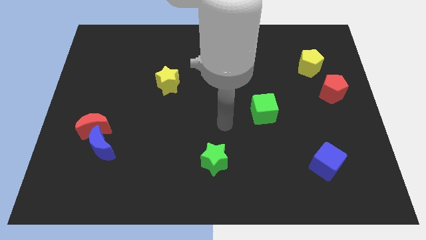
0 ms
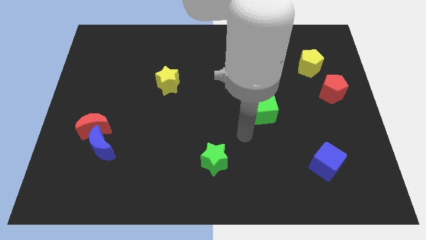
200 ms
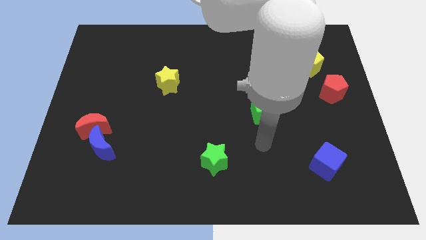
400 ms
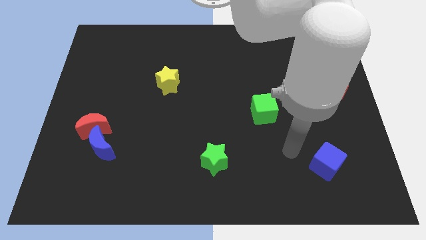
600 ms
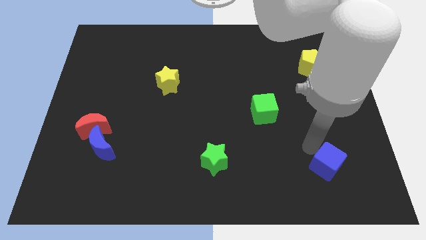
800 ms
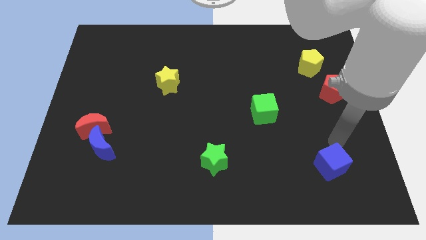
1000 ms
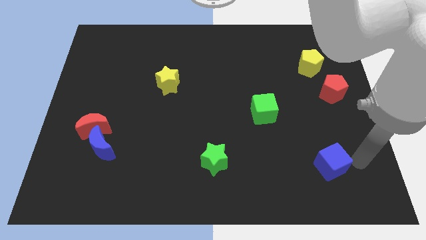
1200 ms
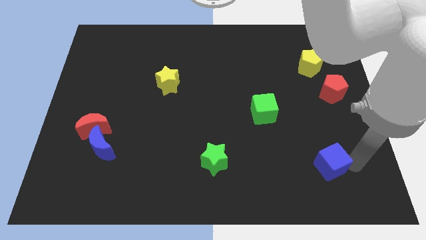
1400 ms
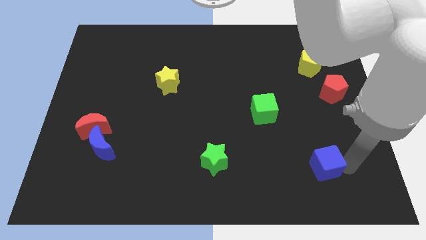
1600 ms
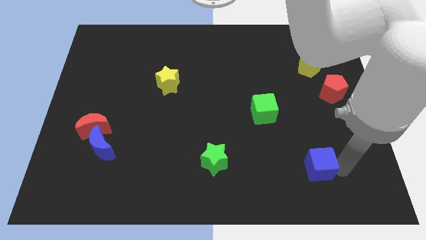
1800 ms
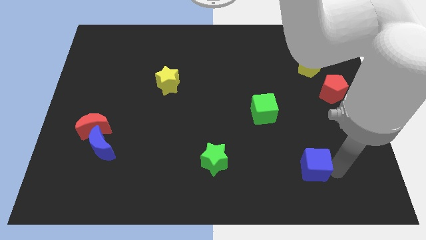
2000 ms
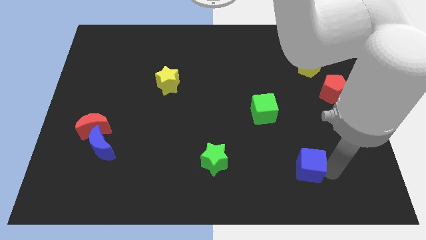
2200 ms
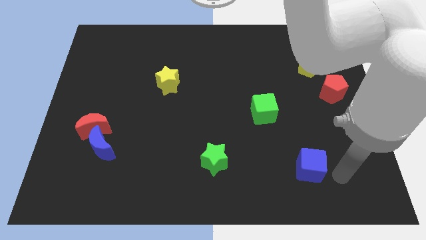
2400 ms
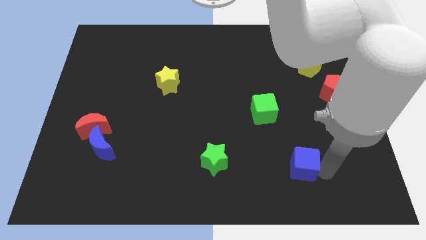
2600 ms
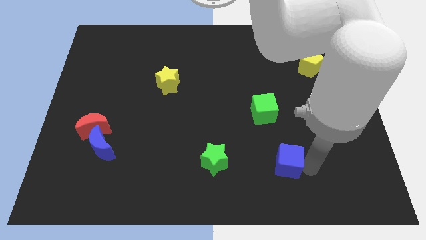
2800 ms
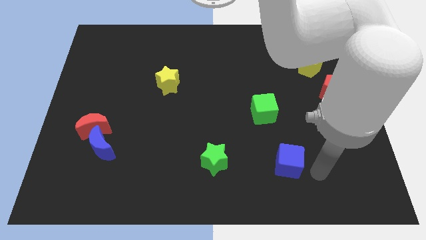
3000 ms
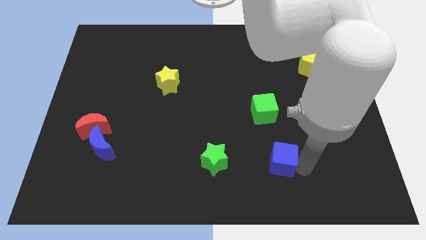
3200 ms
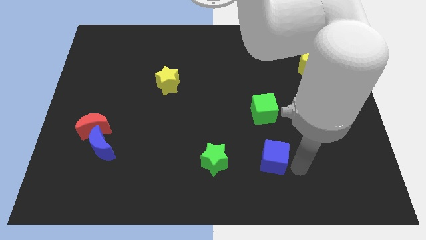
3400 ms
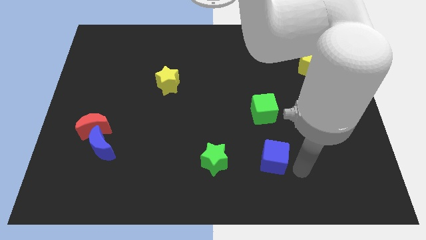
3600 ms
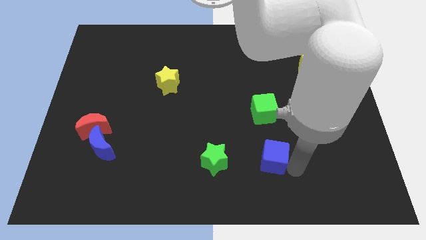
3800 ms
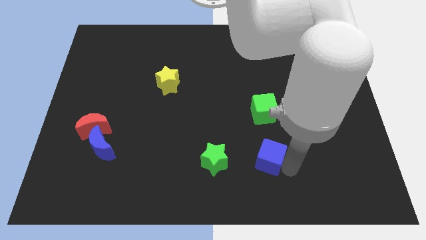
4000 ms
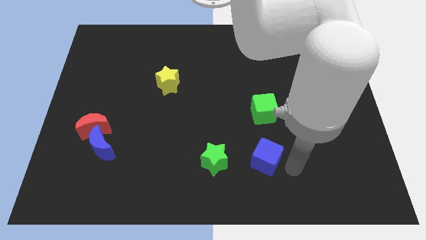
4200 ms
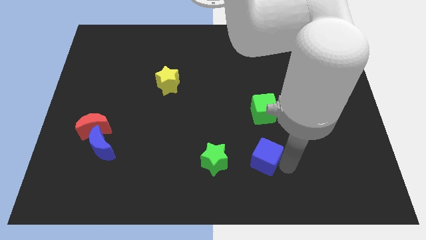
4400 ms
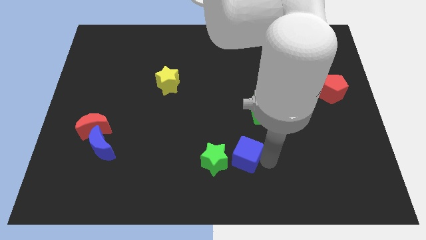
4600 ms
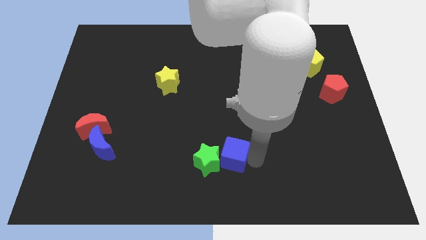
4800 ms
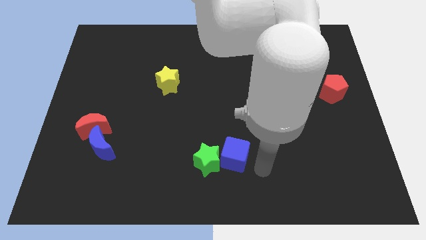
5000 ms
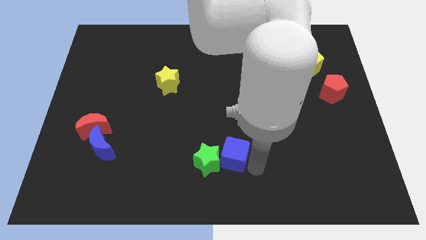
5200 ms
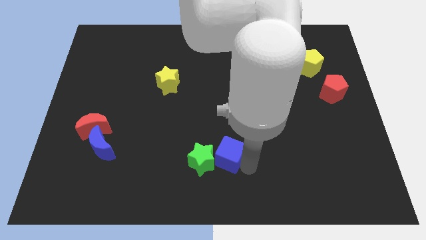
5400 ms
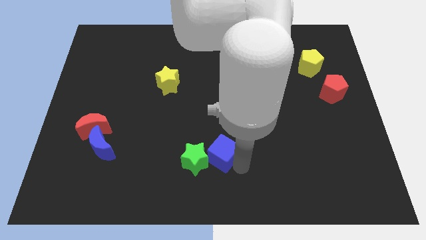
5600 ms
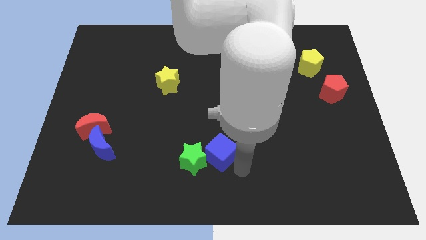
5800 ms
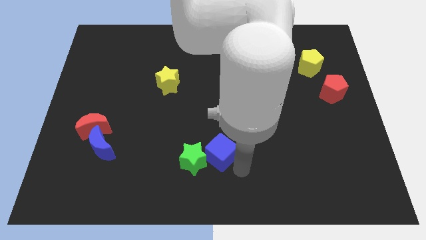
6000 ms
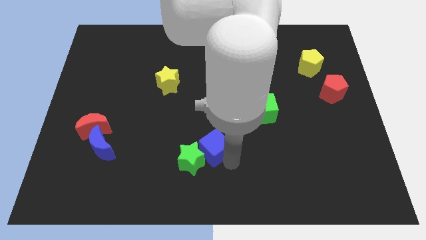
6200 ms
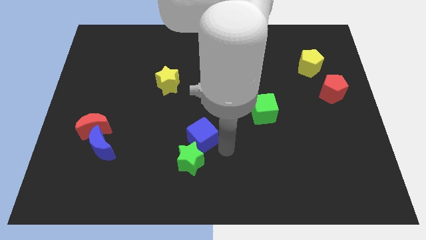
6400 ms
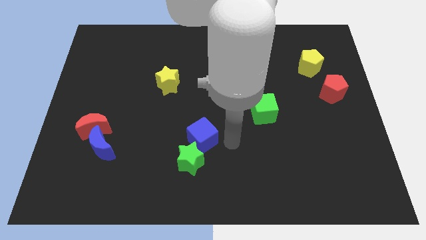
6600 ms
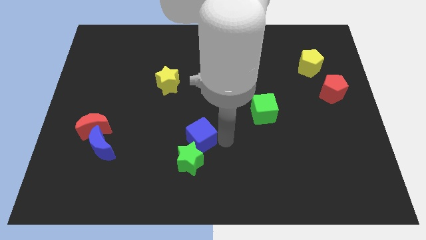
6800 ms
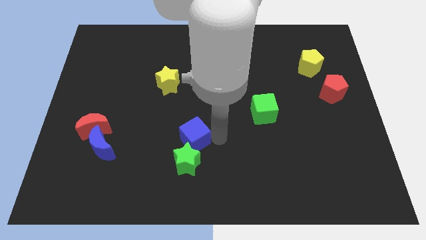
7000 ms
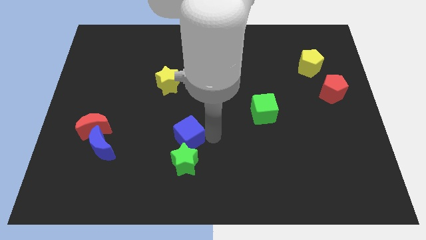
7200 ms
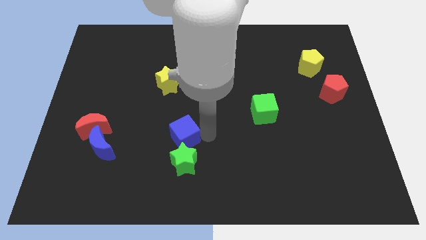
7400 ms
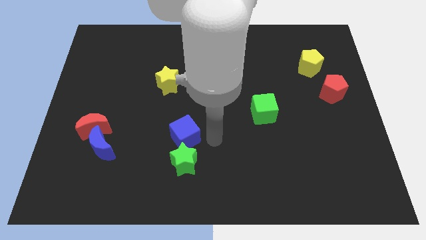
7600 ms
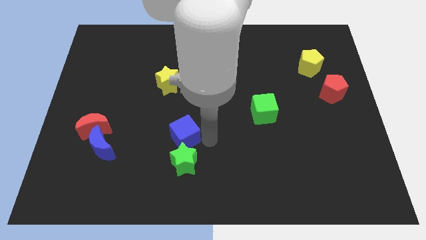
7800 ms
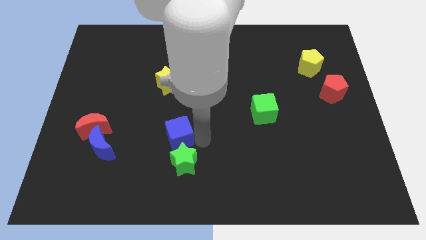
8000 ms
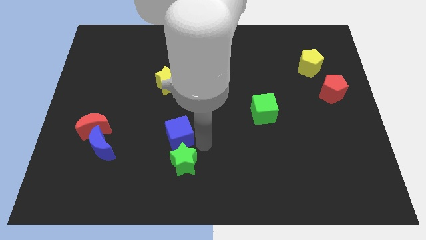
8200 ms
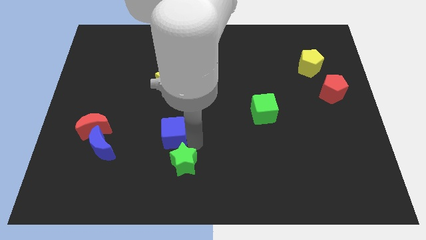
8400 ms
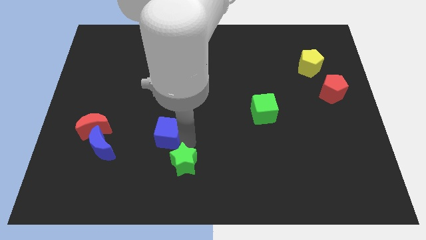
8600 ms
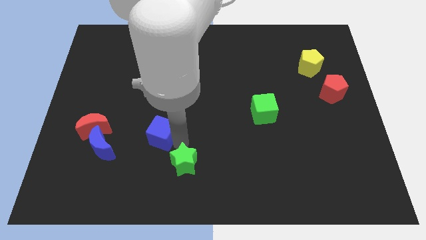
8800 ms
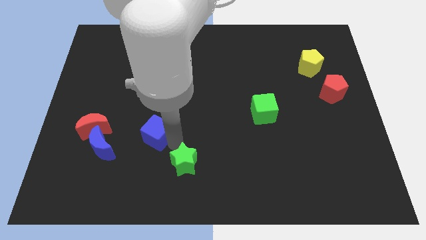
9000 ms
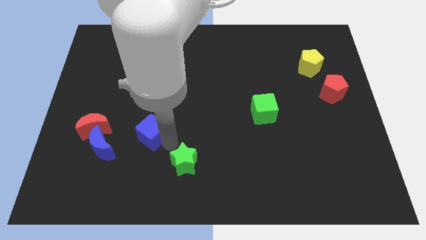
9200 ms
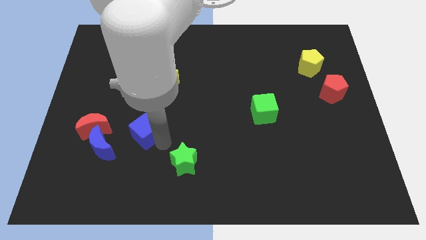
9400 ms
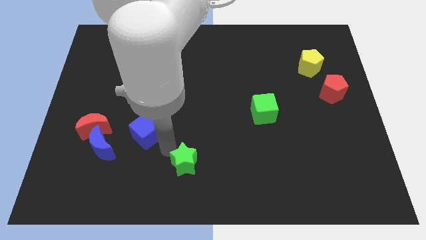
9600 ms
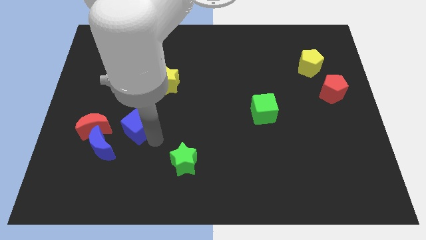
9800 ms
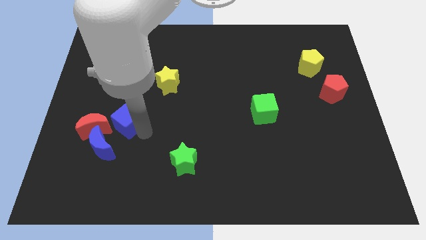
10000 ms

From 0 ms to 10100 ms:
move the blue cube to the top side of the blue moon

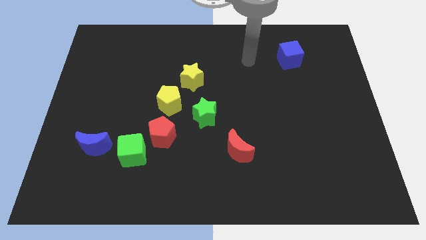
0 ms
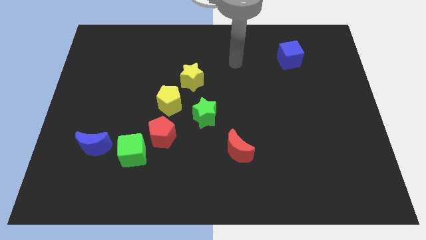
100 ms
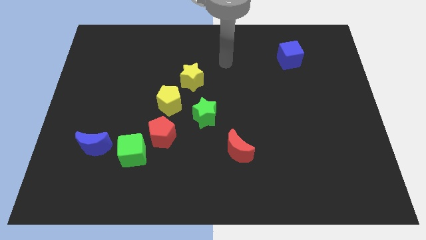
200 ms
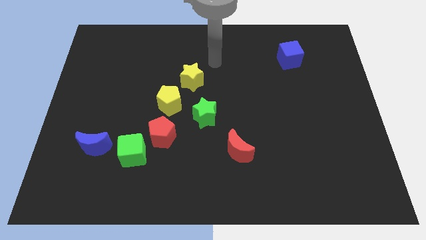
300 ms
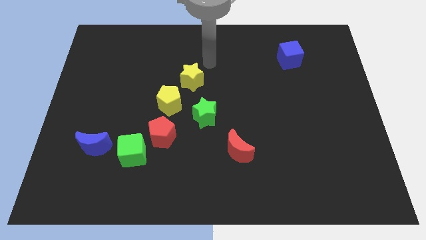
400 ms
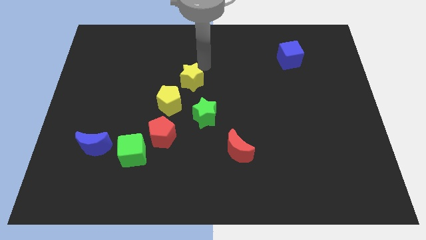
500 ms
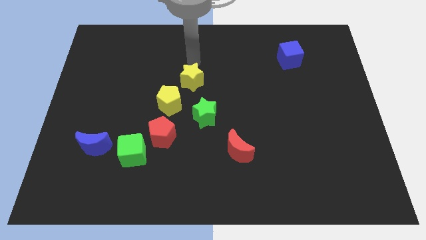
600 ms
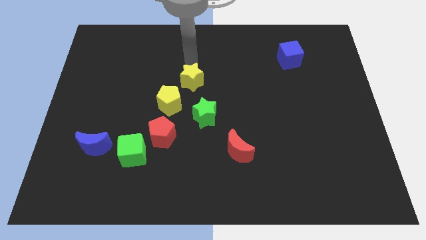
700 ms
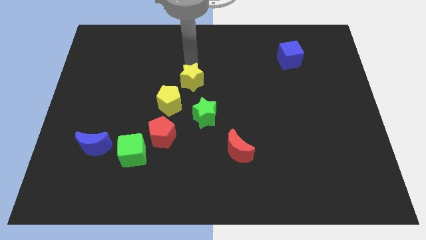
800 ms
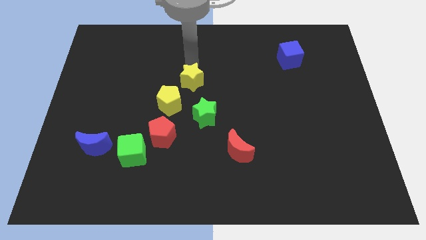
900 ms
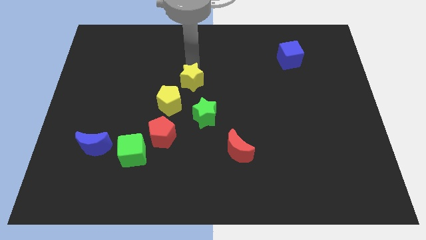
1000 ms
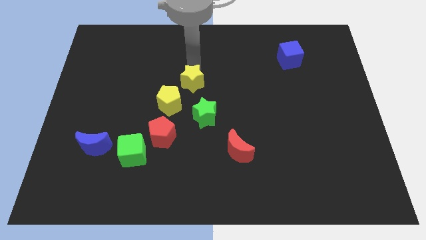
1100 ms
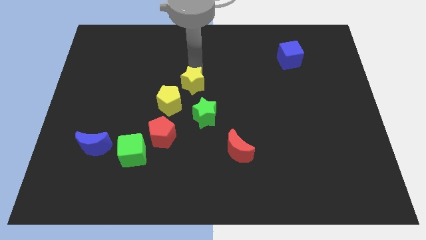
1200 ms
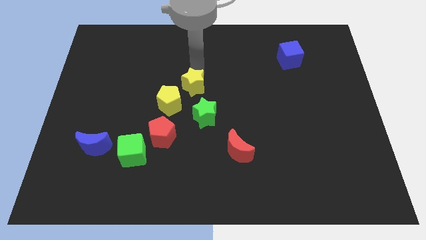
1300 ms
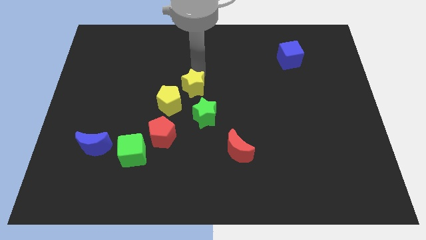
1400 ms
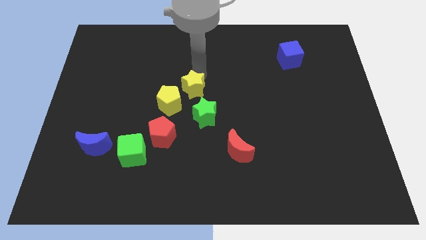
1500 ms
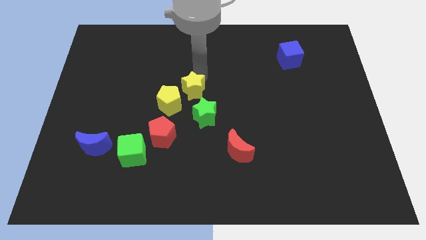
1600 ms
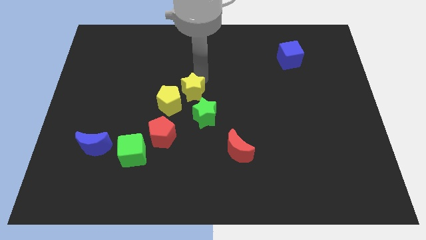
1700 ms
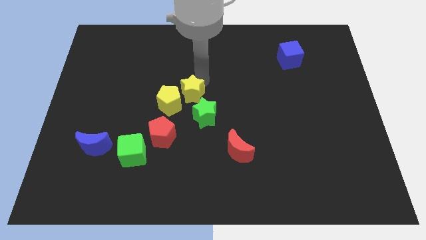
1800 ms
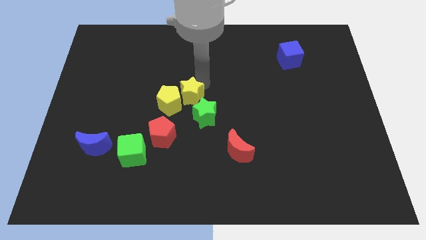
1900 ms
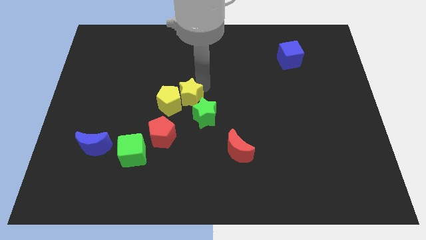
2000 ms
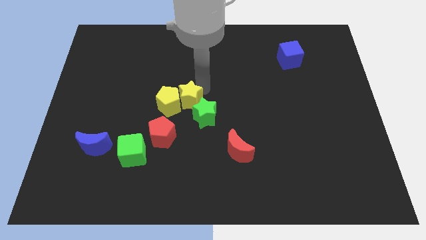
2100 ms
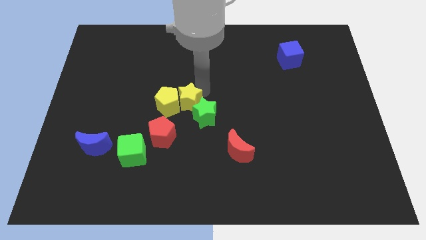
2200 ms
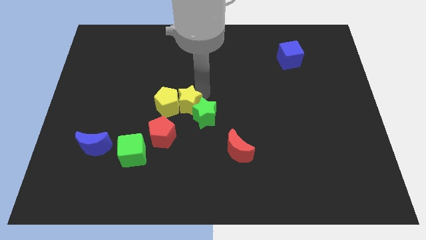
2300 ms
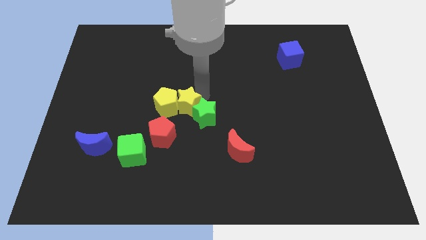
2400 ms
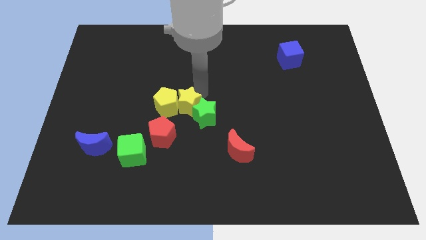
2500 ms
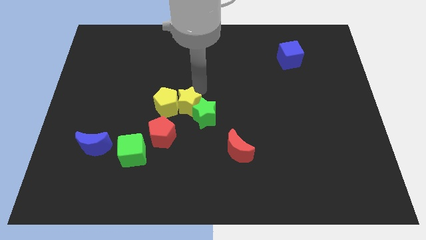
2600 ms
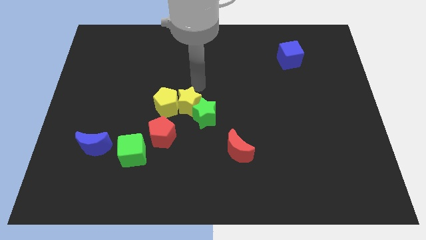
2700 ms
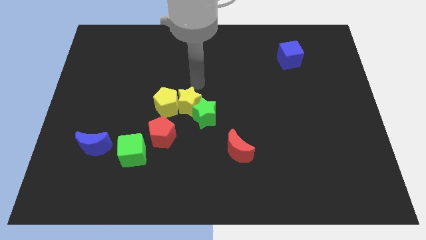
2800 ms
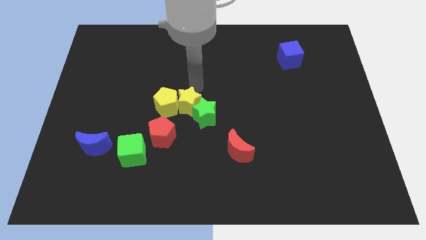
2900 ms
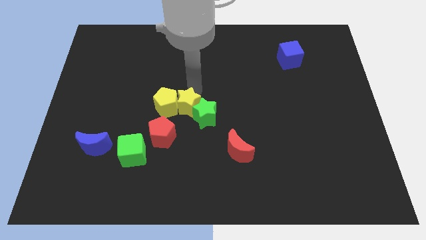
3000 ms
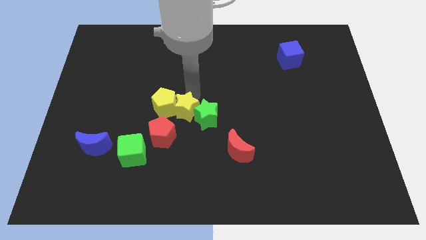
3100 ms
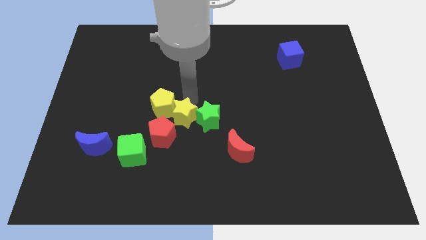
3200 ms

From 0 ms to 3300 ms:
move the yellow star to the bottom left side of the green star
